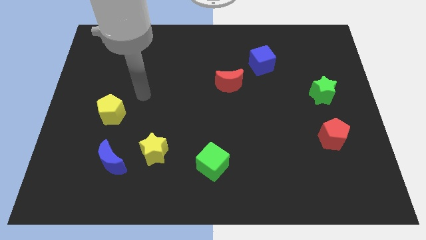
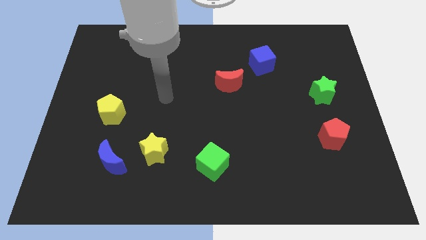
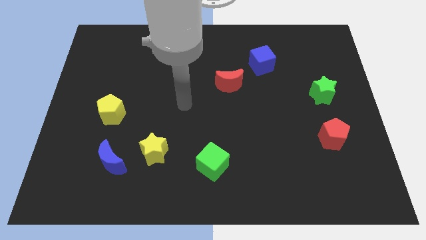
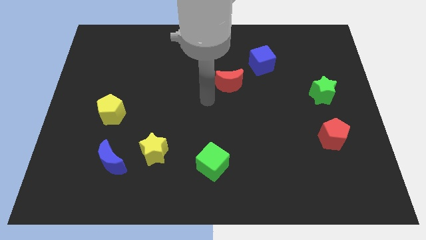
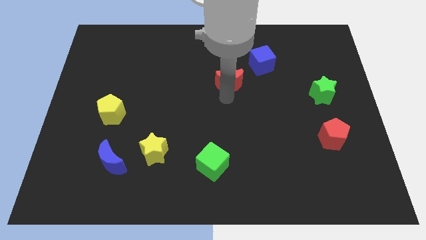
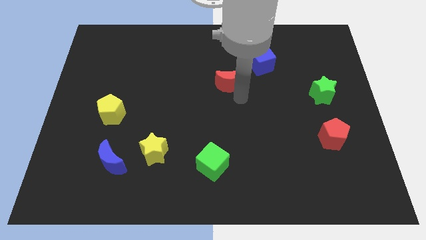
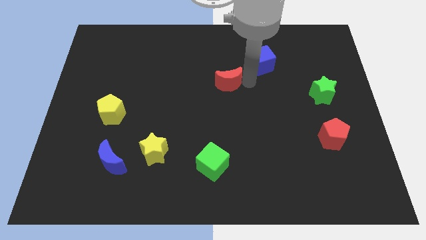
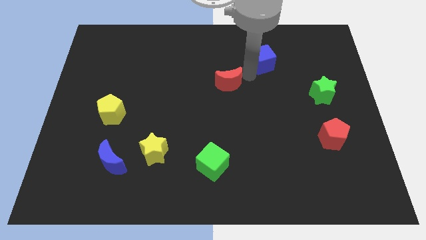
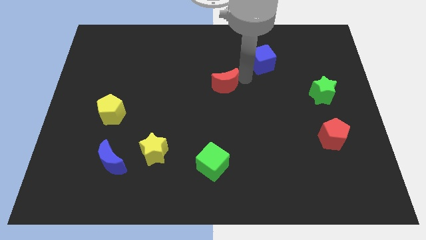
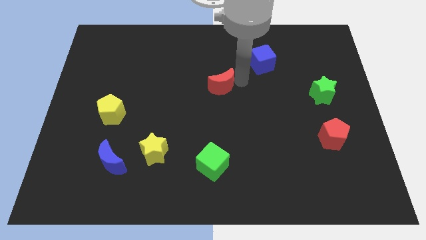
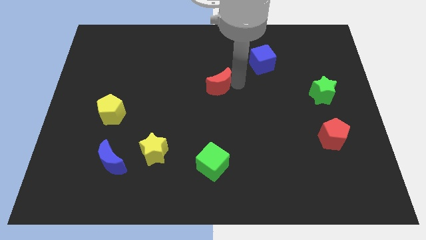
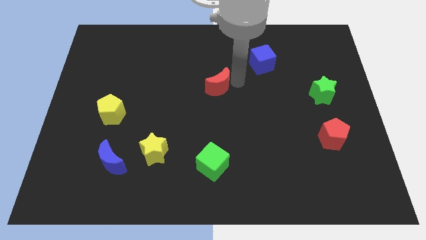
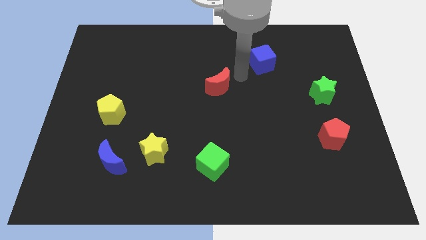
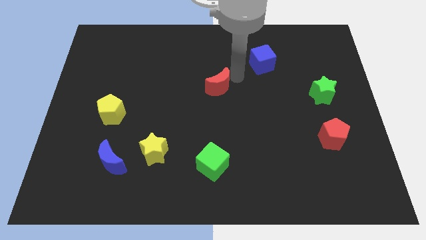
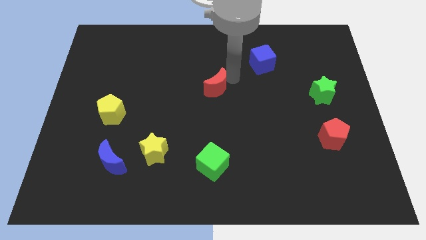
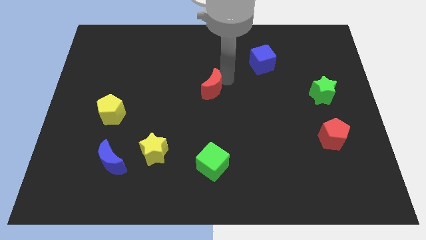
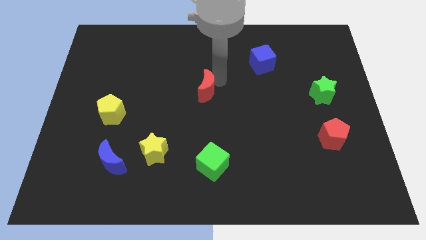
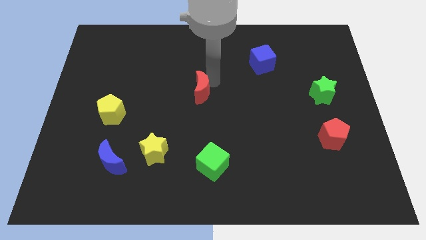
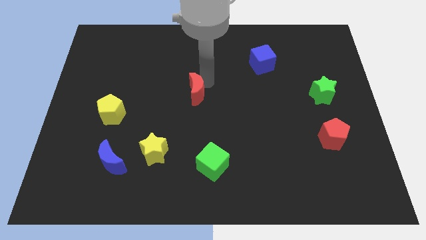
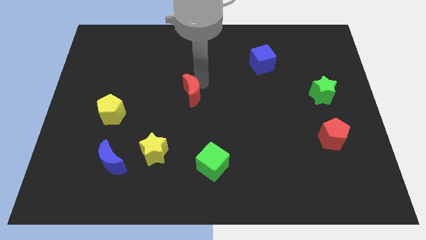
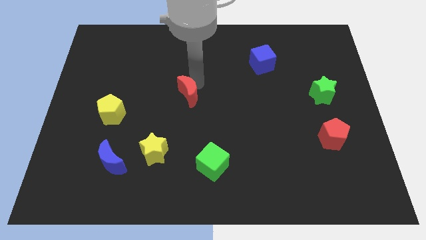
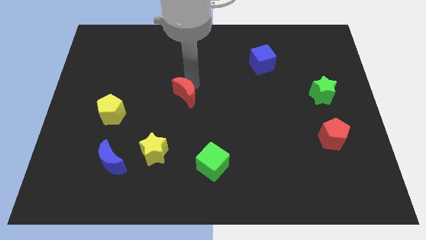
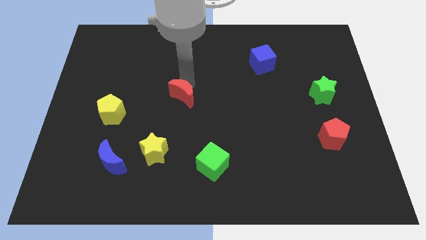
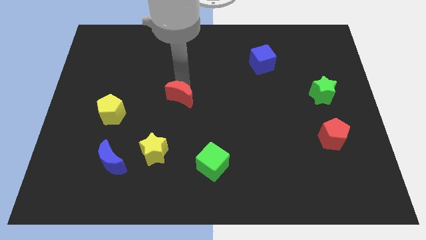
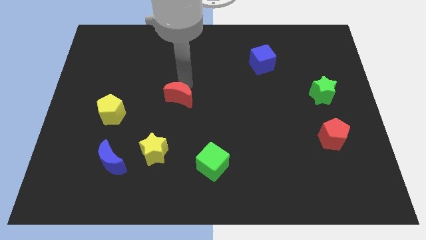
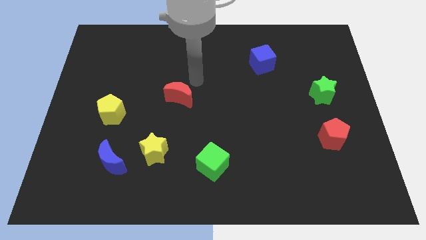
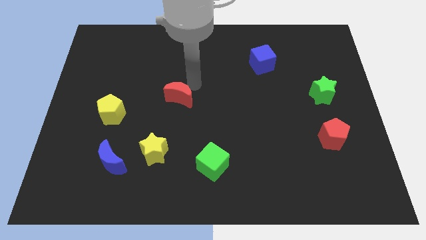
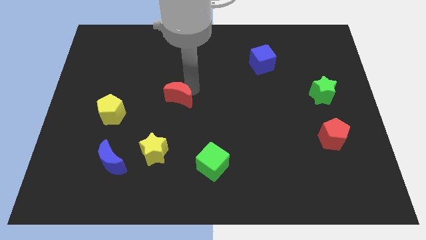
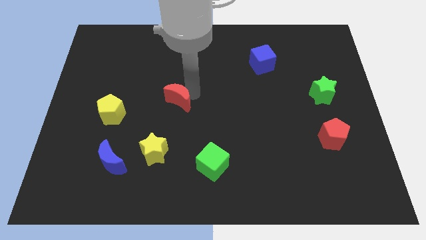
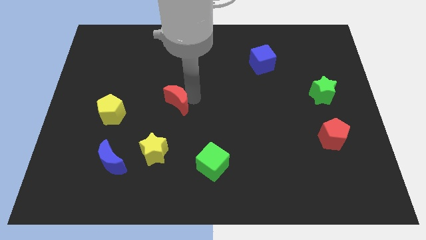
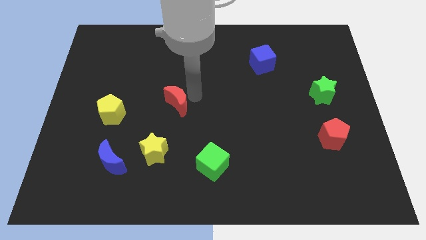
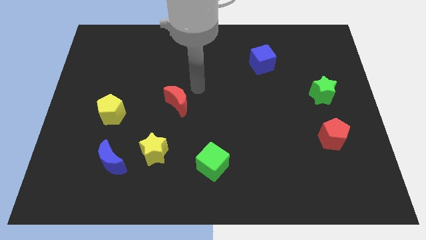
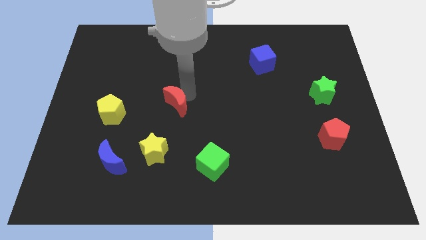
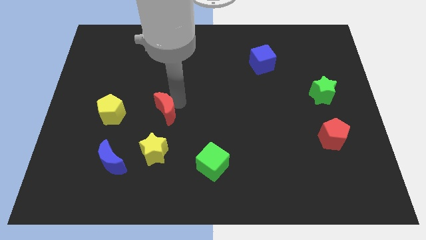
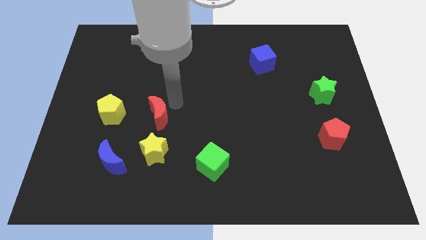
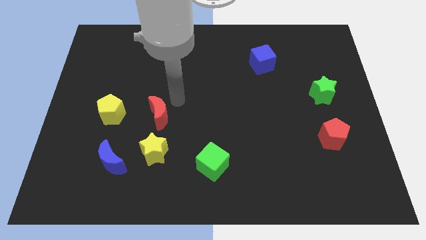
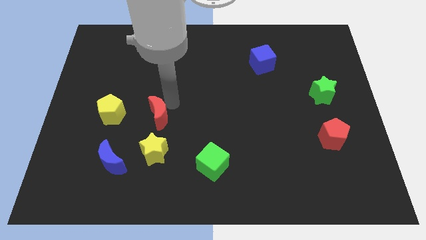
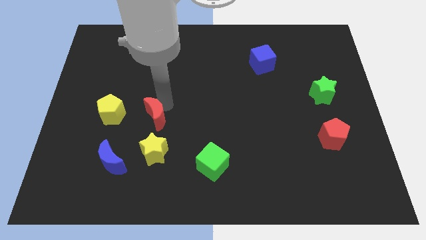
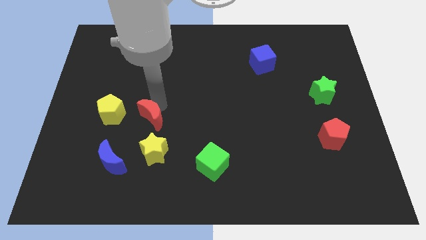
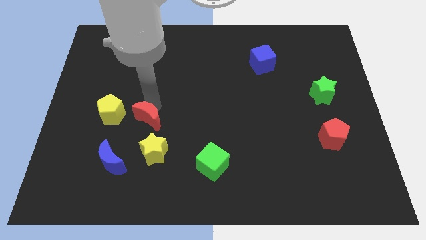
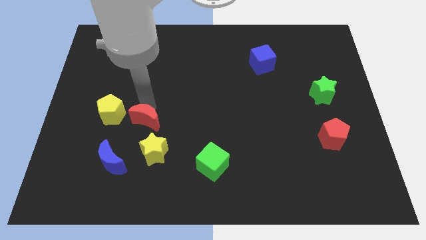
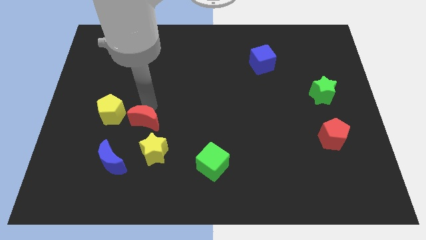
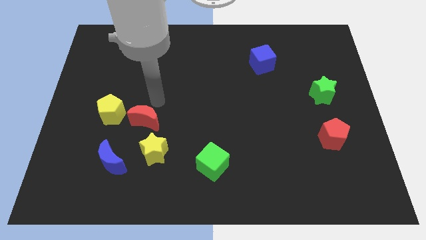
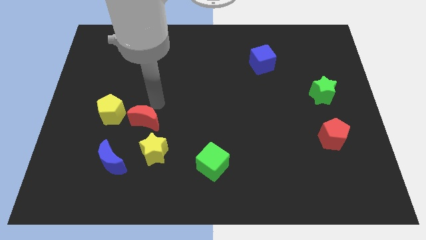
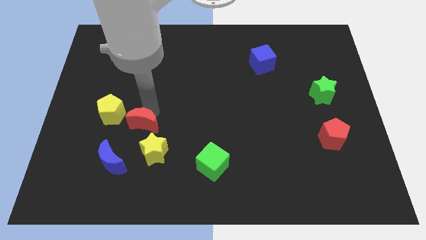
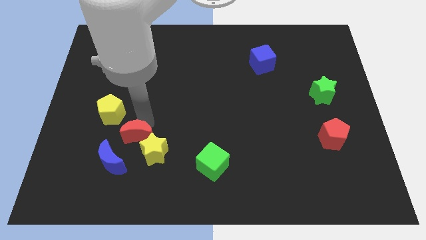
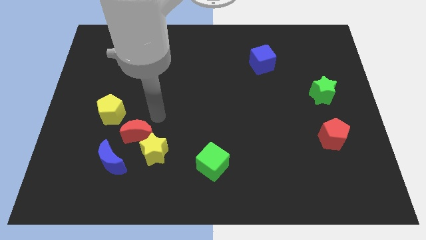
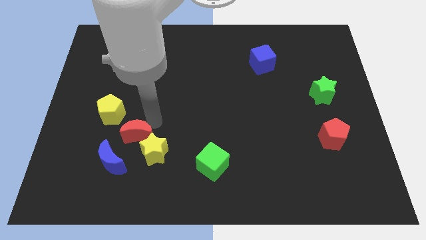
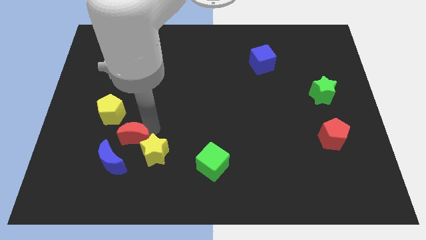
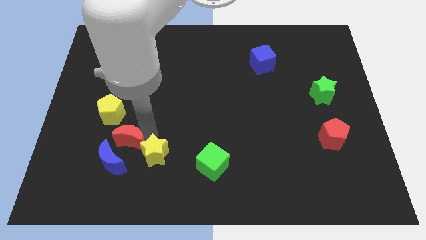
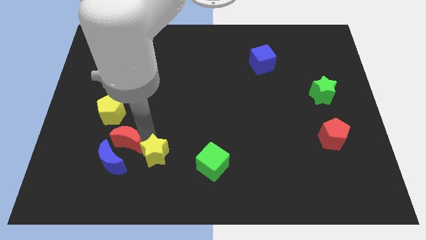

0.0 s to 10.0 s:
put the red moon to the blue moon

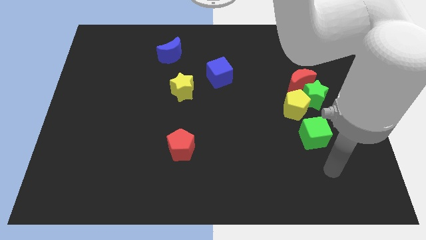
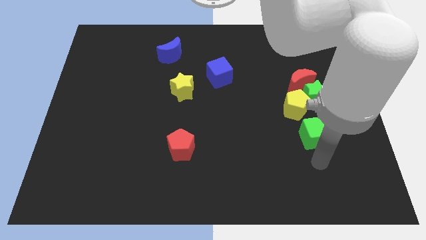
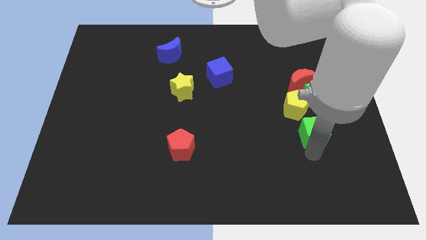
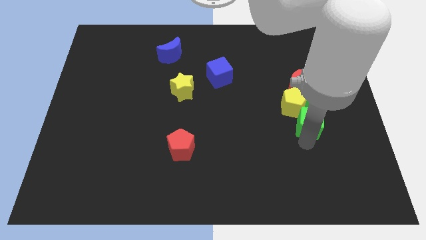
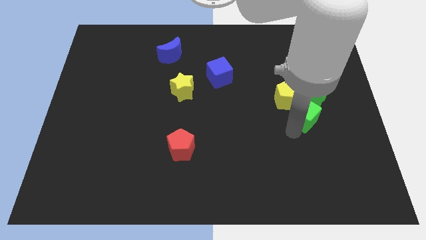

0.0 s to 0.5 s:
put the yellow pentagon to the red moon
